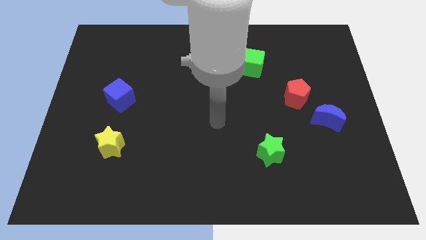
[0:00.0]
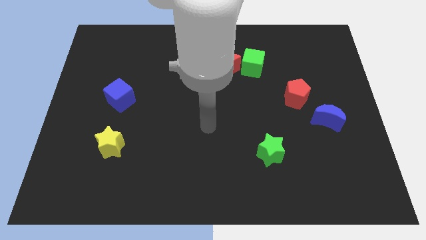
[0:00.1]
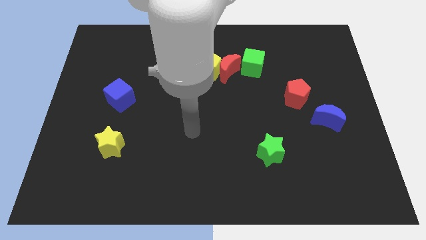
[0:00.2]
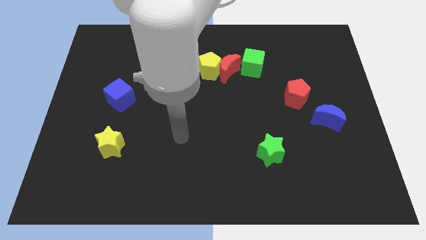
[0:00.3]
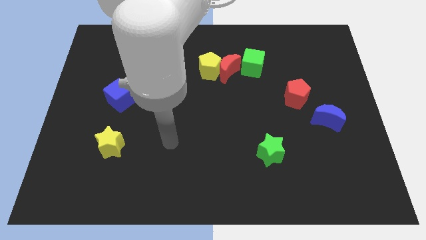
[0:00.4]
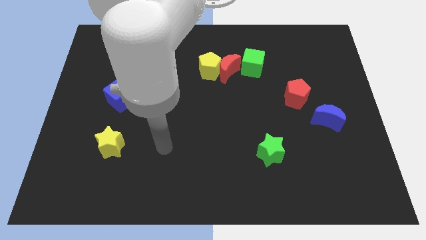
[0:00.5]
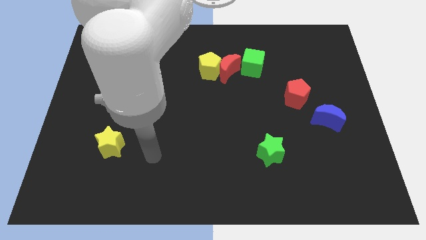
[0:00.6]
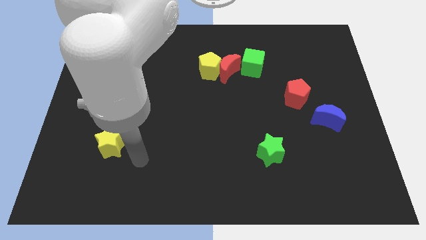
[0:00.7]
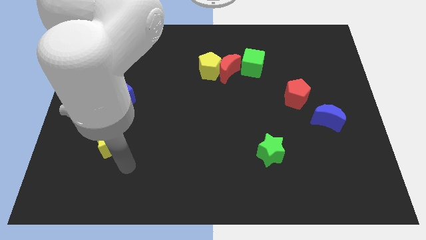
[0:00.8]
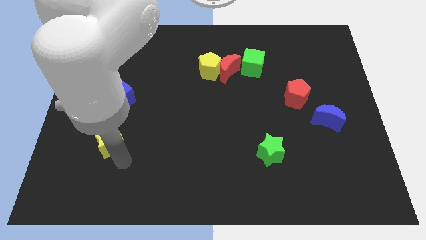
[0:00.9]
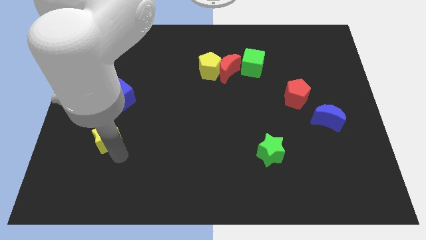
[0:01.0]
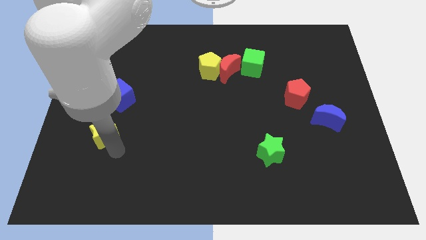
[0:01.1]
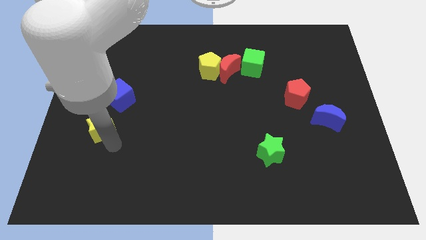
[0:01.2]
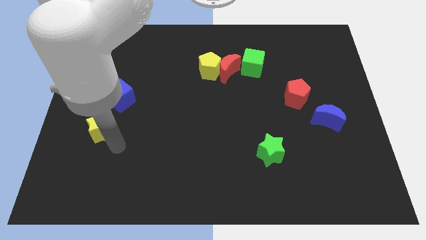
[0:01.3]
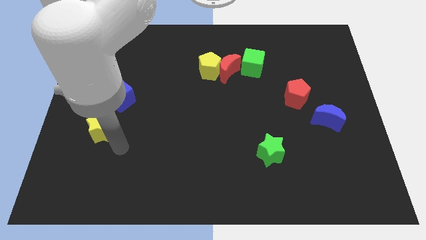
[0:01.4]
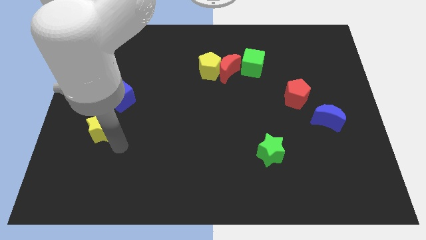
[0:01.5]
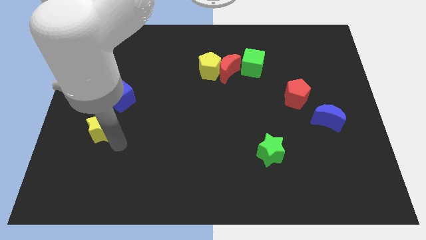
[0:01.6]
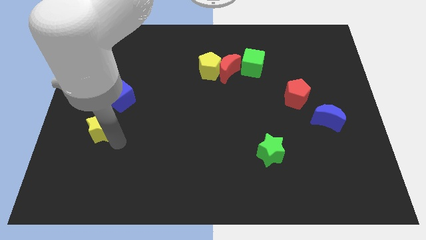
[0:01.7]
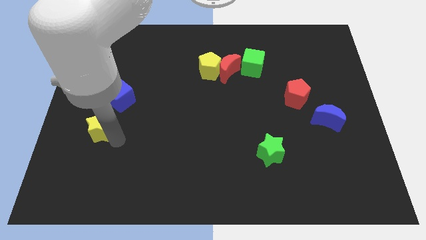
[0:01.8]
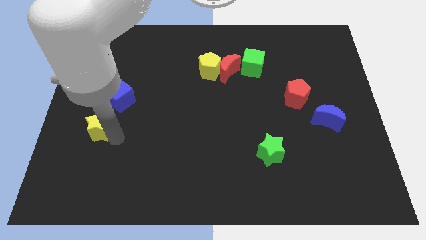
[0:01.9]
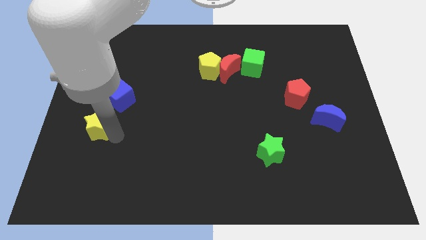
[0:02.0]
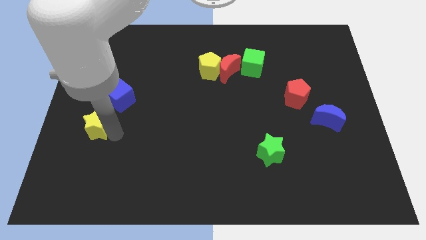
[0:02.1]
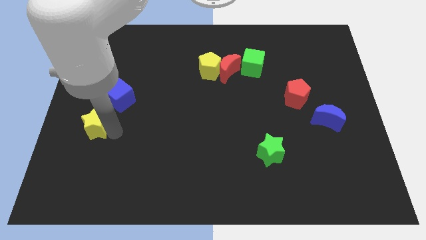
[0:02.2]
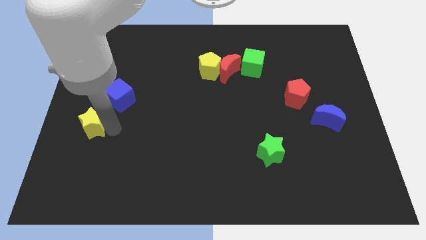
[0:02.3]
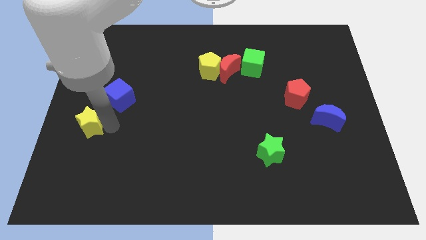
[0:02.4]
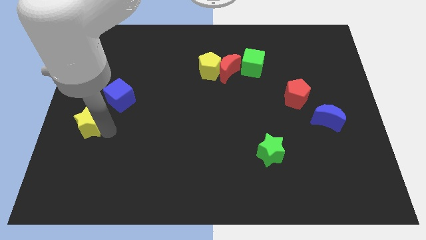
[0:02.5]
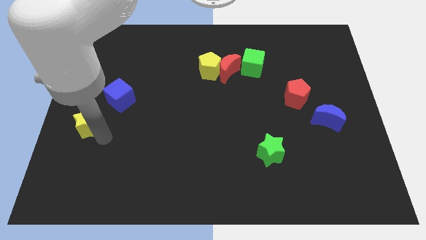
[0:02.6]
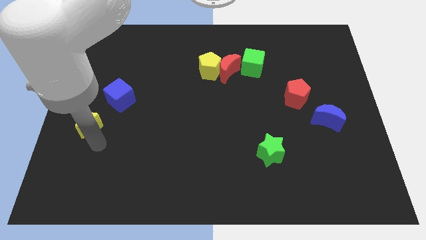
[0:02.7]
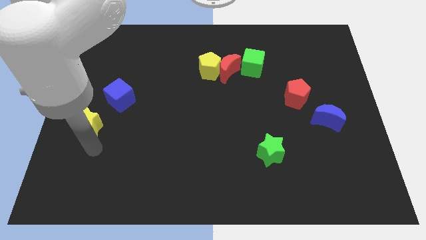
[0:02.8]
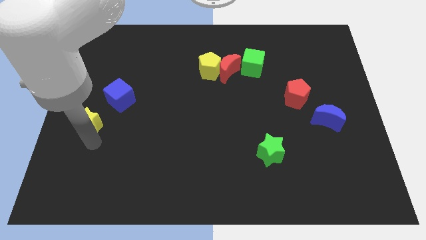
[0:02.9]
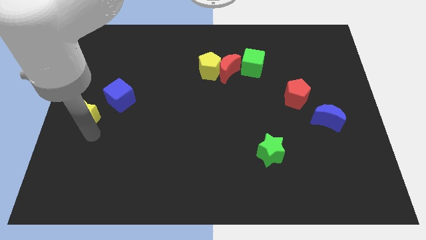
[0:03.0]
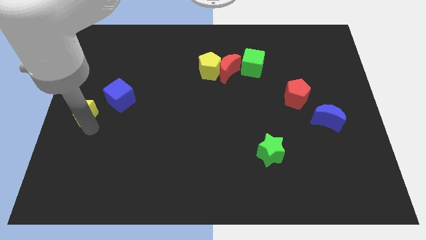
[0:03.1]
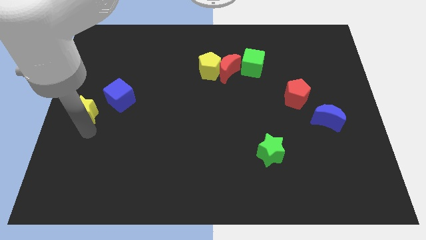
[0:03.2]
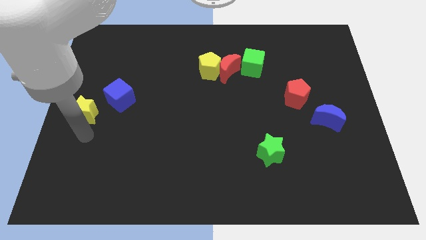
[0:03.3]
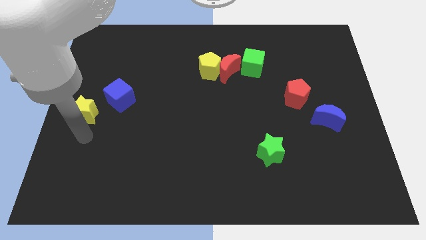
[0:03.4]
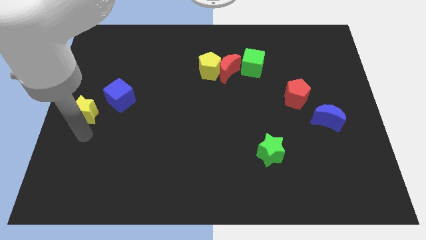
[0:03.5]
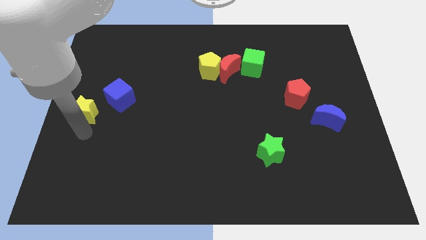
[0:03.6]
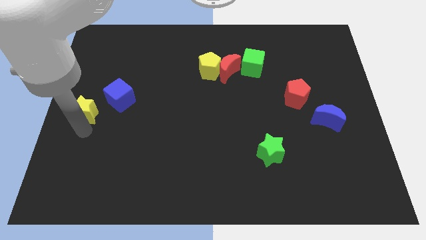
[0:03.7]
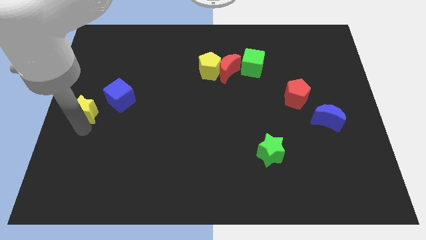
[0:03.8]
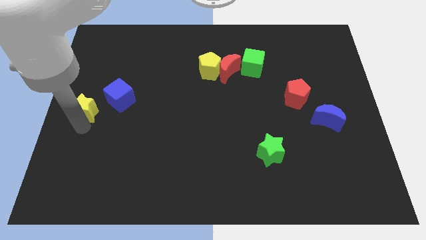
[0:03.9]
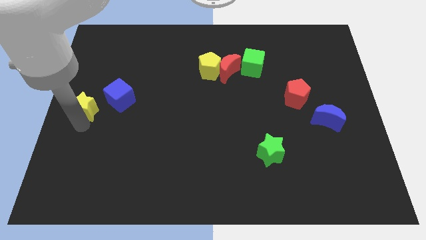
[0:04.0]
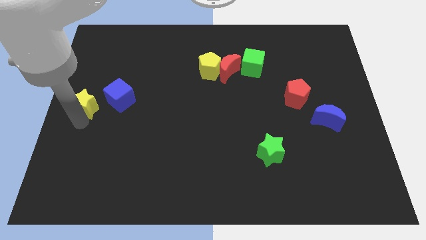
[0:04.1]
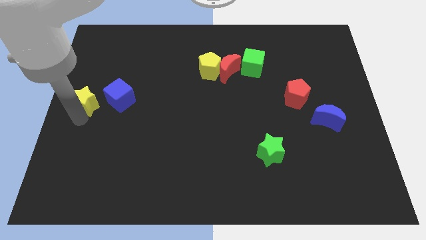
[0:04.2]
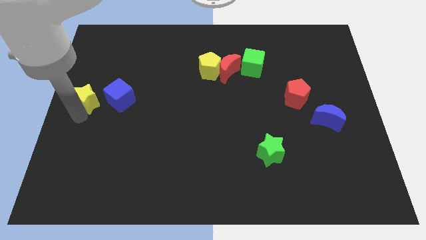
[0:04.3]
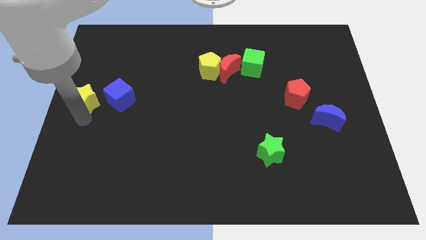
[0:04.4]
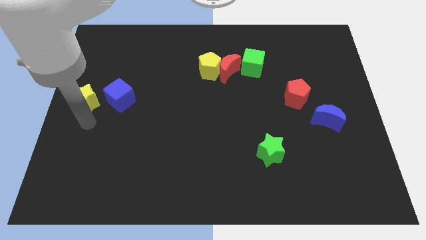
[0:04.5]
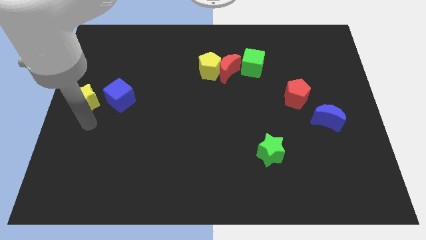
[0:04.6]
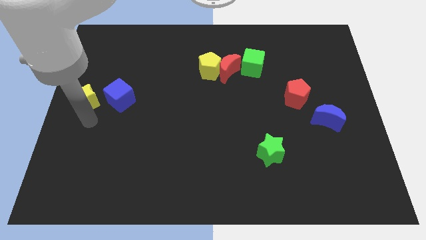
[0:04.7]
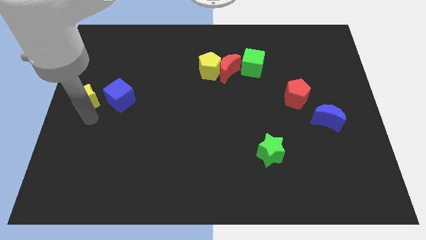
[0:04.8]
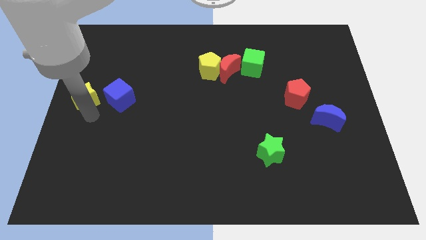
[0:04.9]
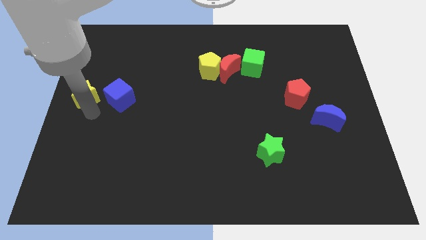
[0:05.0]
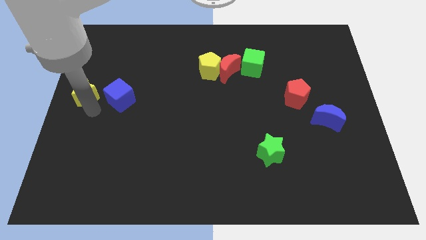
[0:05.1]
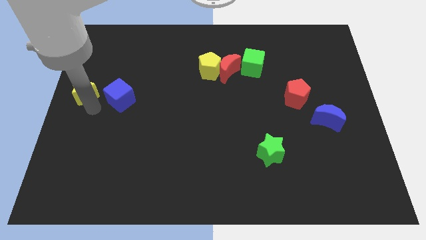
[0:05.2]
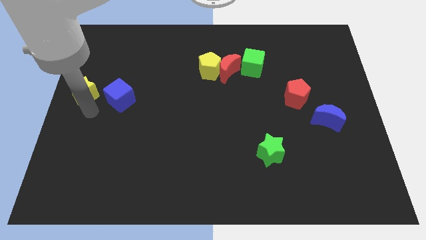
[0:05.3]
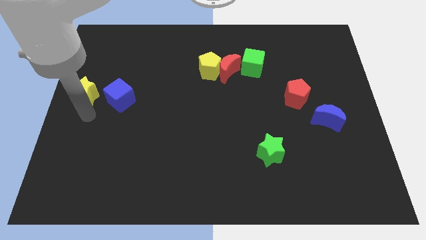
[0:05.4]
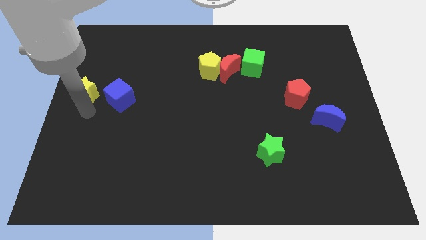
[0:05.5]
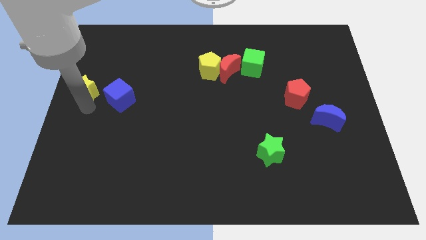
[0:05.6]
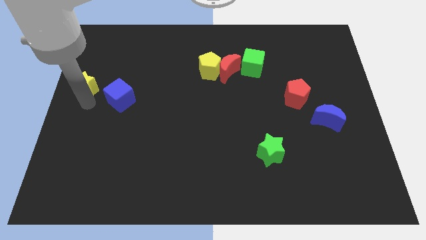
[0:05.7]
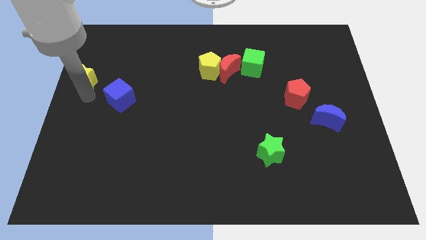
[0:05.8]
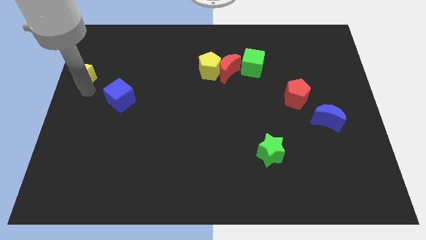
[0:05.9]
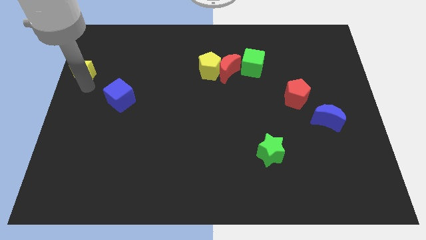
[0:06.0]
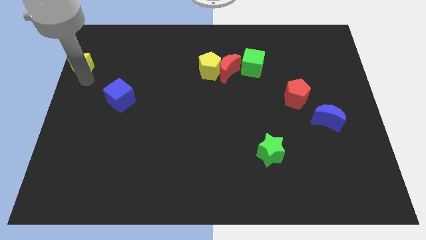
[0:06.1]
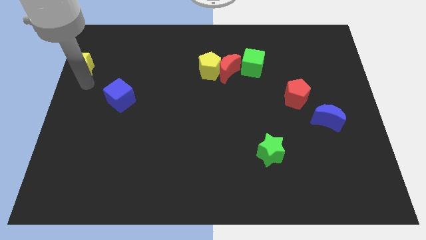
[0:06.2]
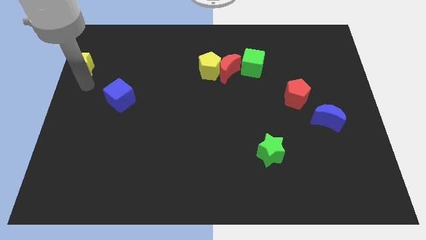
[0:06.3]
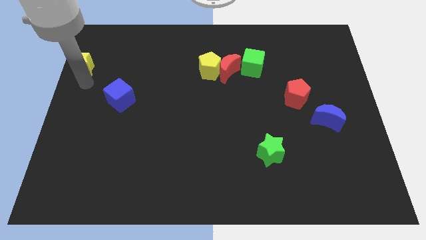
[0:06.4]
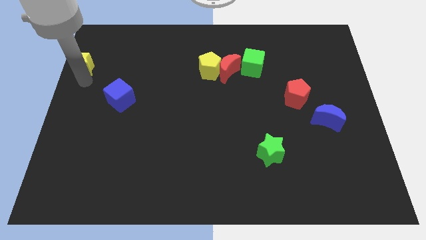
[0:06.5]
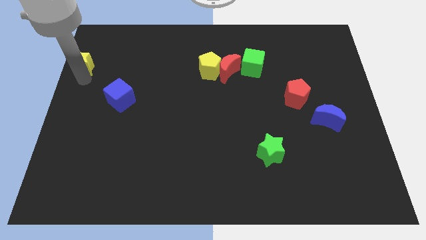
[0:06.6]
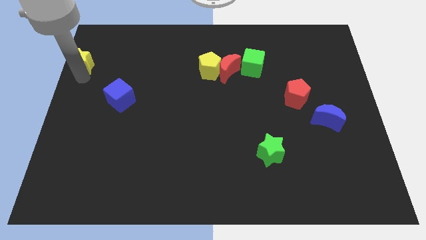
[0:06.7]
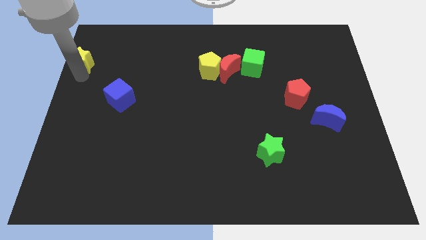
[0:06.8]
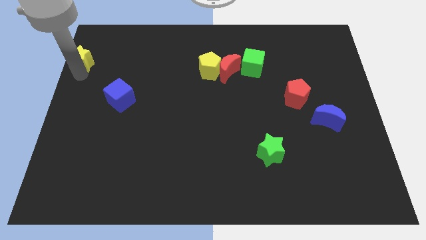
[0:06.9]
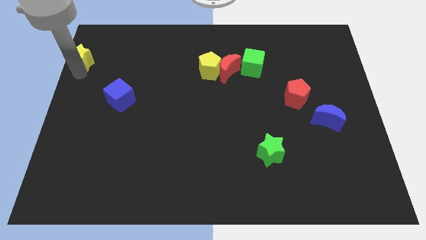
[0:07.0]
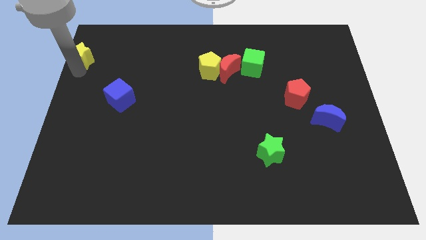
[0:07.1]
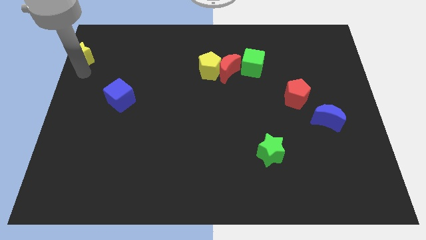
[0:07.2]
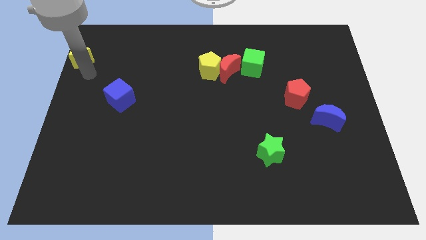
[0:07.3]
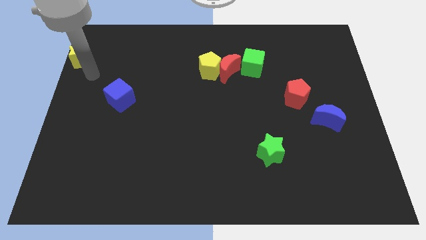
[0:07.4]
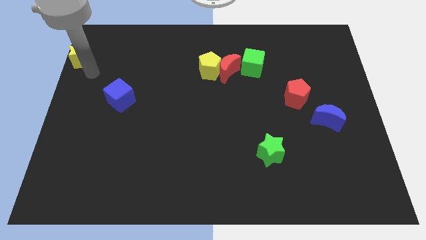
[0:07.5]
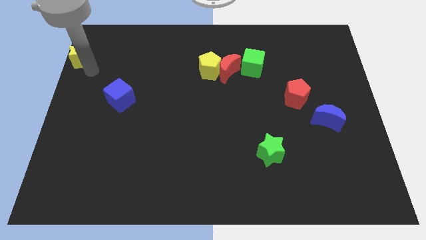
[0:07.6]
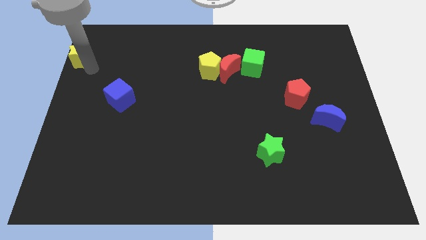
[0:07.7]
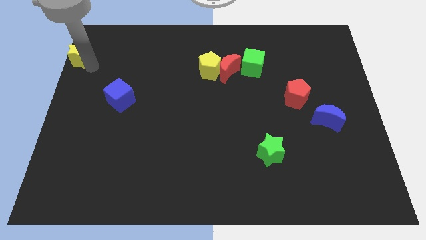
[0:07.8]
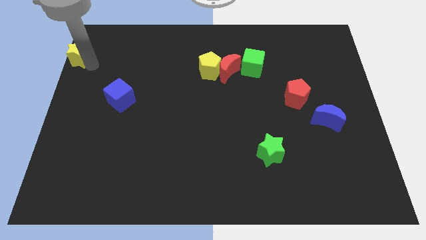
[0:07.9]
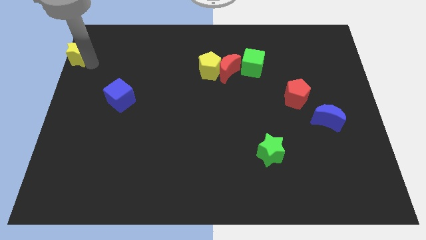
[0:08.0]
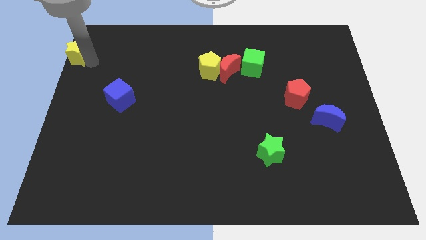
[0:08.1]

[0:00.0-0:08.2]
push the yellow star to the top left corner
